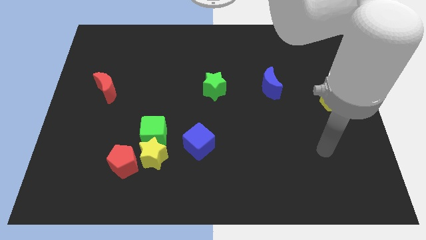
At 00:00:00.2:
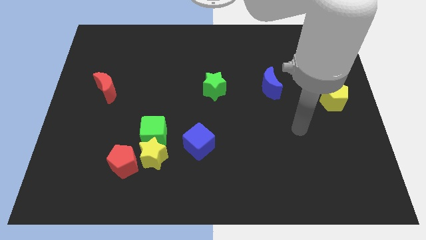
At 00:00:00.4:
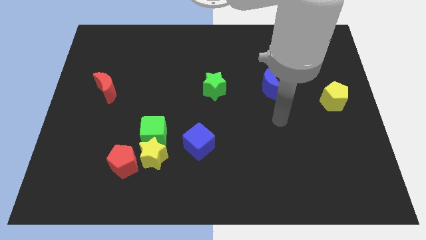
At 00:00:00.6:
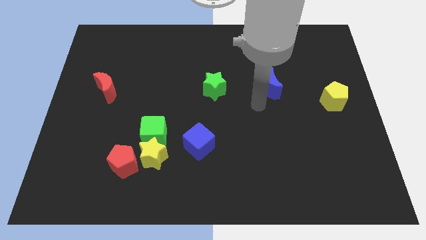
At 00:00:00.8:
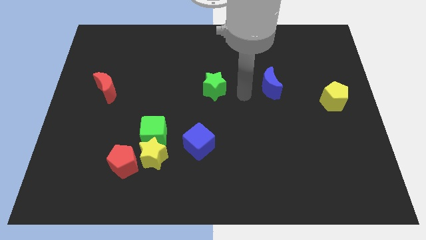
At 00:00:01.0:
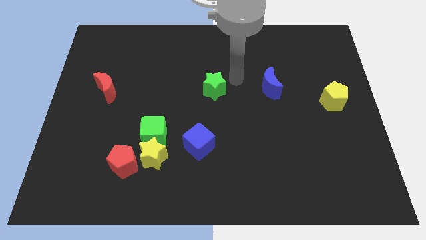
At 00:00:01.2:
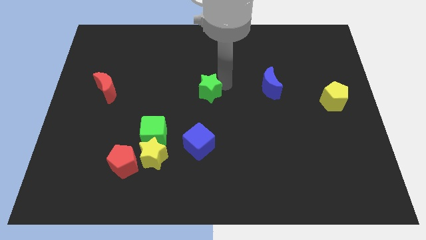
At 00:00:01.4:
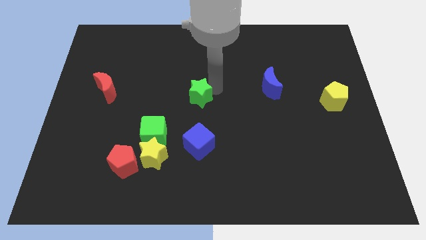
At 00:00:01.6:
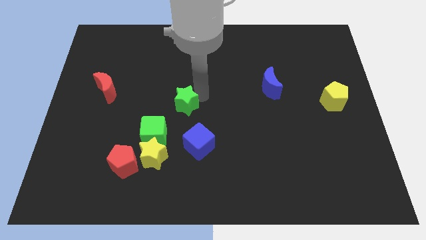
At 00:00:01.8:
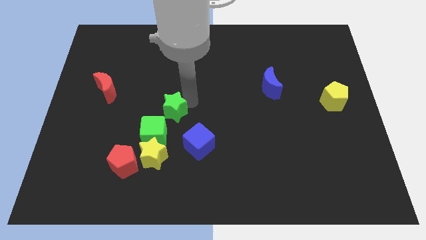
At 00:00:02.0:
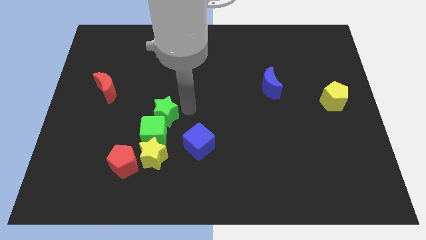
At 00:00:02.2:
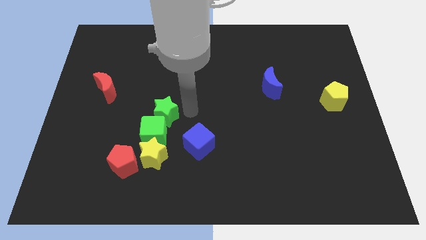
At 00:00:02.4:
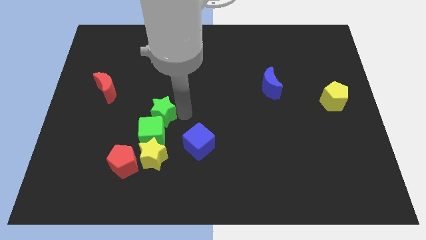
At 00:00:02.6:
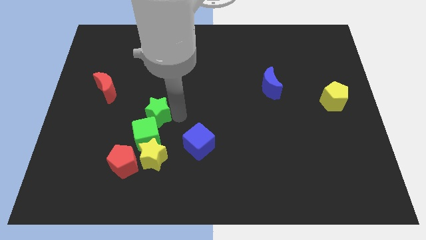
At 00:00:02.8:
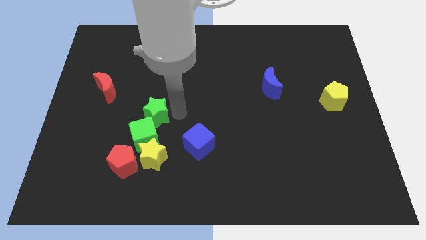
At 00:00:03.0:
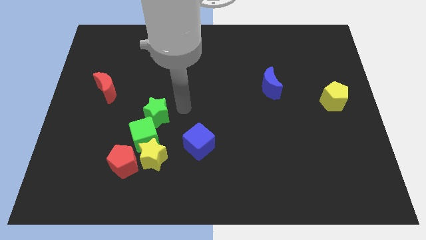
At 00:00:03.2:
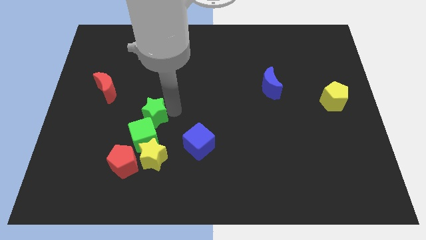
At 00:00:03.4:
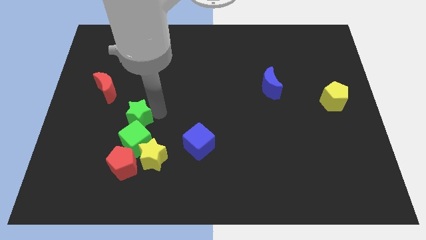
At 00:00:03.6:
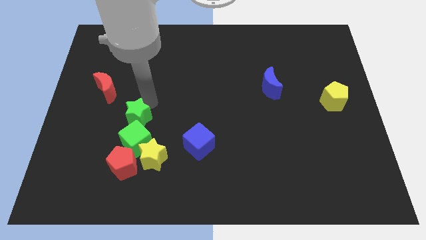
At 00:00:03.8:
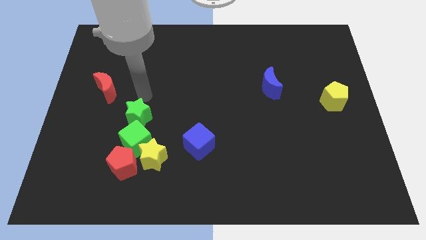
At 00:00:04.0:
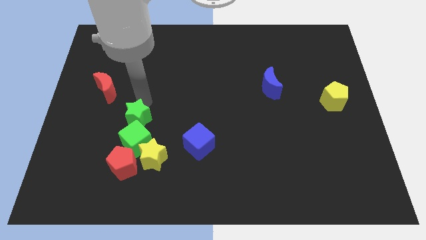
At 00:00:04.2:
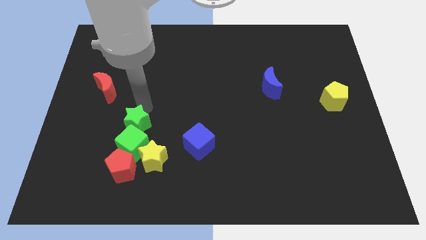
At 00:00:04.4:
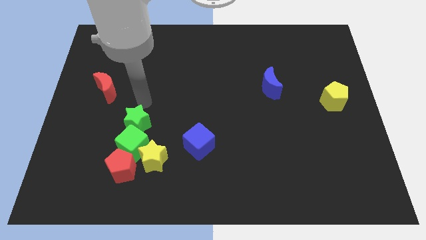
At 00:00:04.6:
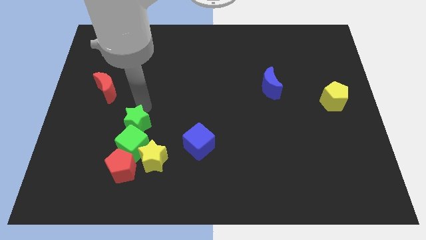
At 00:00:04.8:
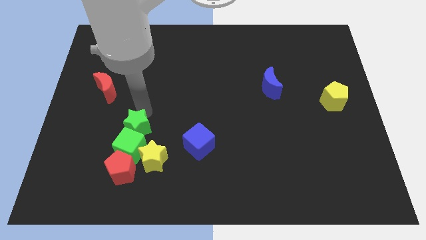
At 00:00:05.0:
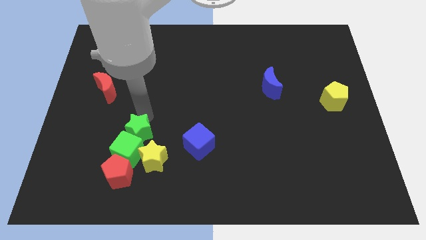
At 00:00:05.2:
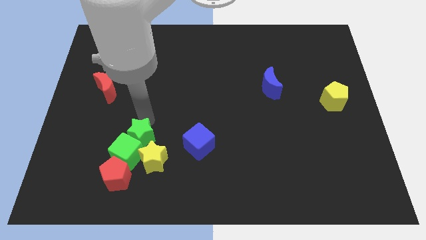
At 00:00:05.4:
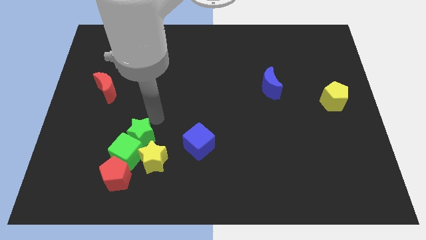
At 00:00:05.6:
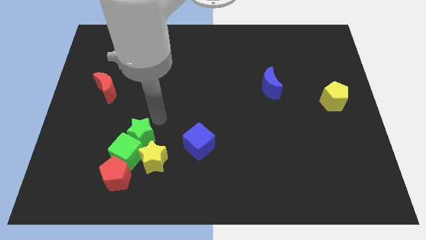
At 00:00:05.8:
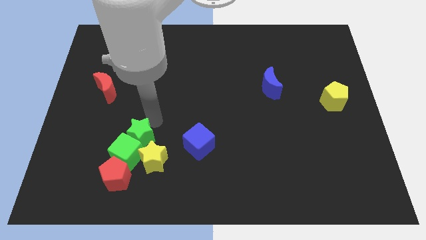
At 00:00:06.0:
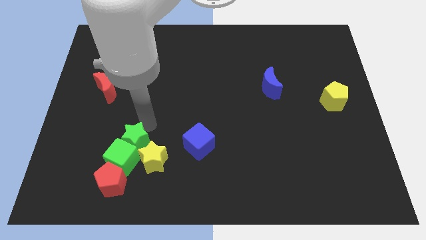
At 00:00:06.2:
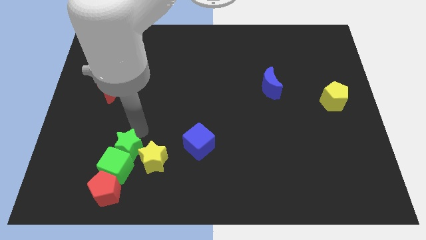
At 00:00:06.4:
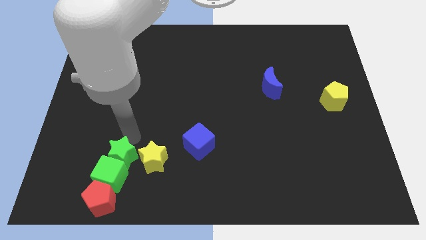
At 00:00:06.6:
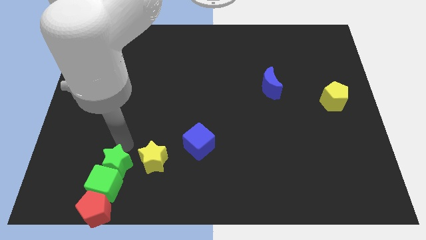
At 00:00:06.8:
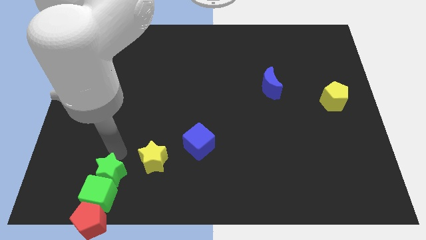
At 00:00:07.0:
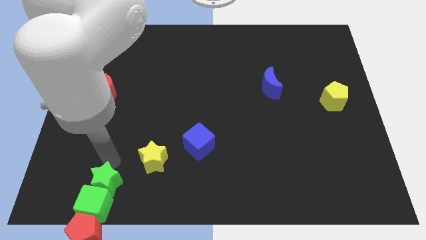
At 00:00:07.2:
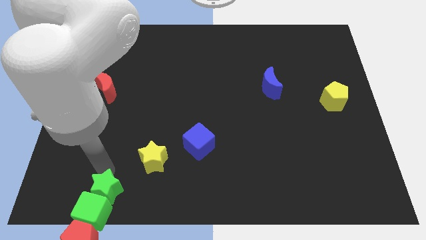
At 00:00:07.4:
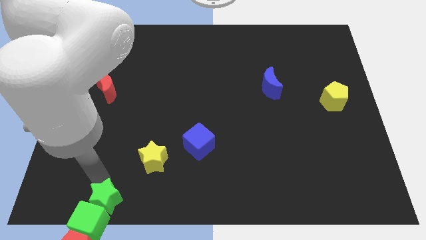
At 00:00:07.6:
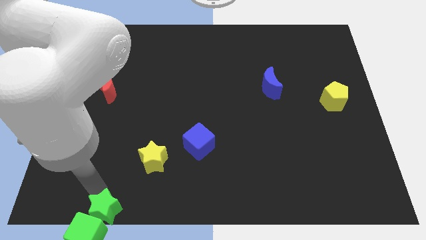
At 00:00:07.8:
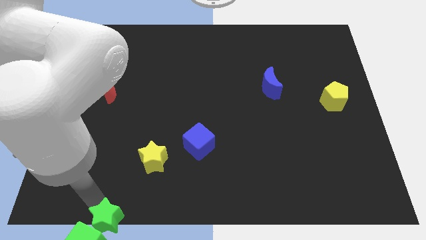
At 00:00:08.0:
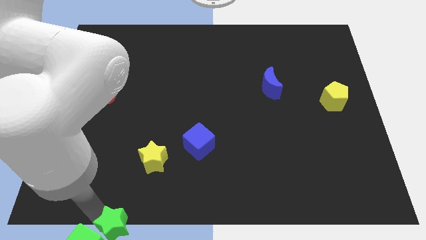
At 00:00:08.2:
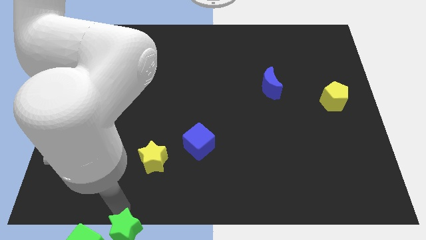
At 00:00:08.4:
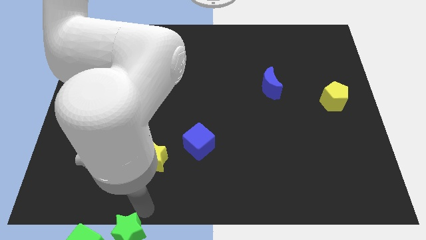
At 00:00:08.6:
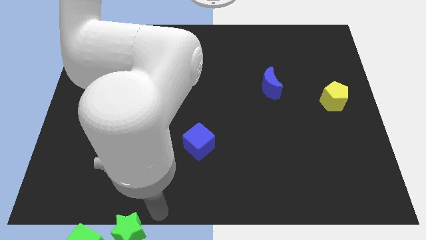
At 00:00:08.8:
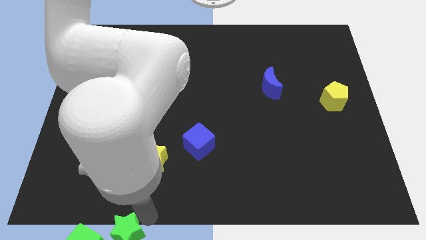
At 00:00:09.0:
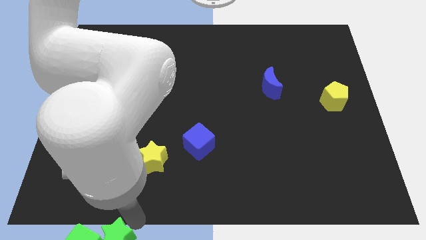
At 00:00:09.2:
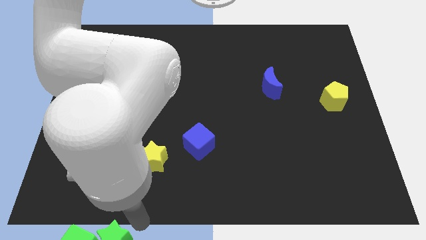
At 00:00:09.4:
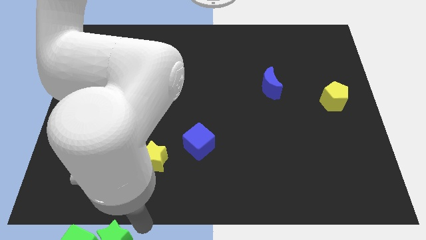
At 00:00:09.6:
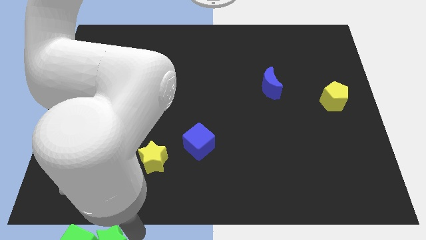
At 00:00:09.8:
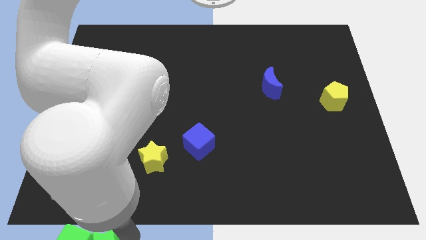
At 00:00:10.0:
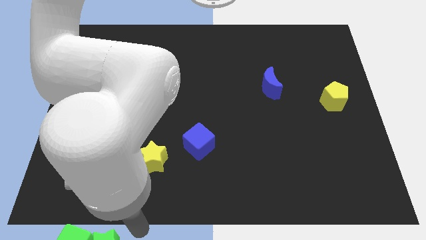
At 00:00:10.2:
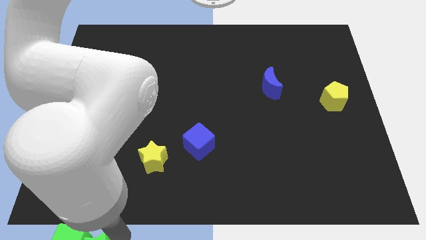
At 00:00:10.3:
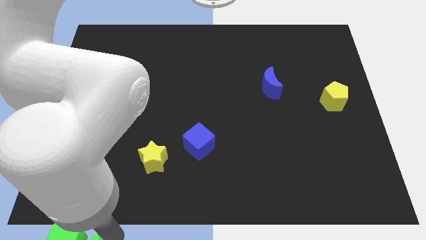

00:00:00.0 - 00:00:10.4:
push the green star close to the red pentagon

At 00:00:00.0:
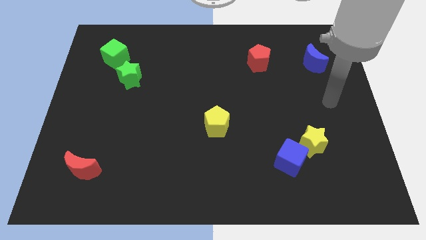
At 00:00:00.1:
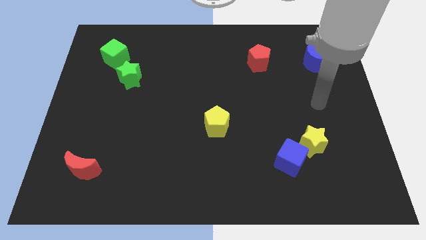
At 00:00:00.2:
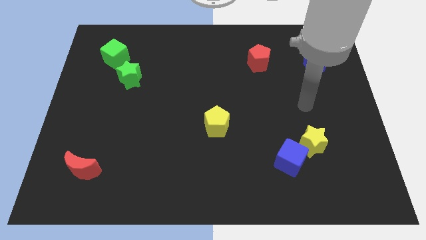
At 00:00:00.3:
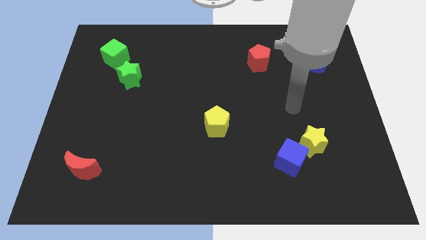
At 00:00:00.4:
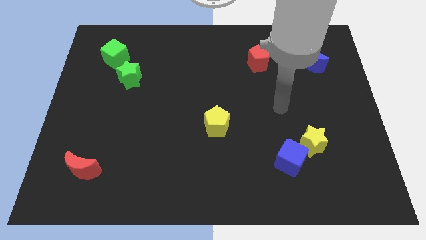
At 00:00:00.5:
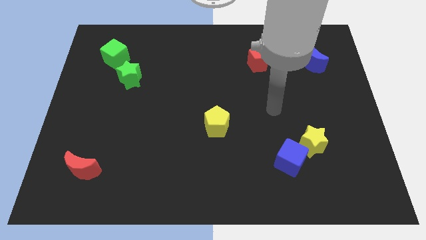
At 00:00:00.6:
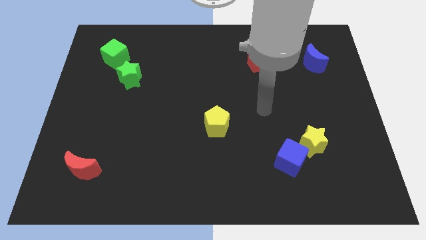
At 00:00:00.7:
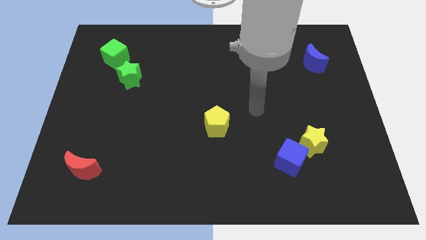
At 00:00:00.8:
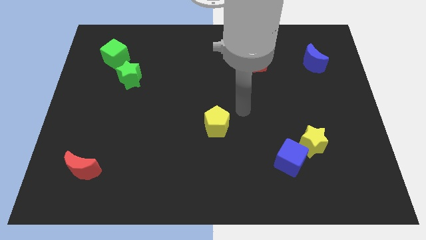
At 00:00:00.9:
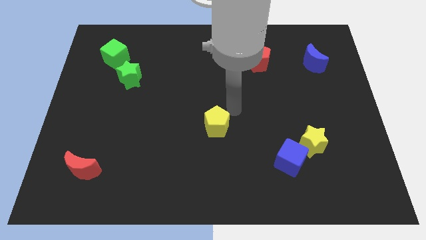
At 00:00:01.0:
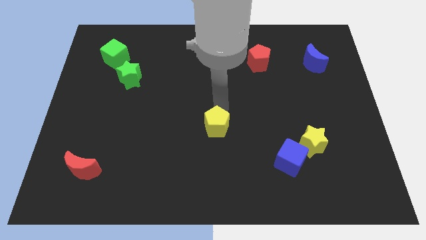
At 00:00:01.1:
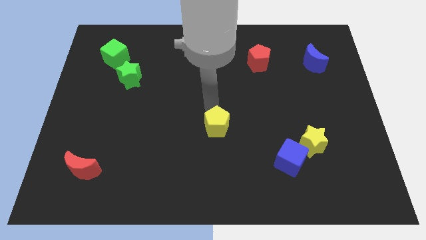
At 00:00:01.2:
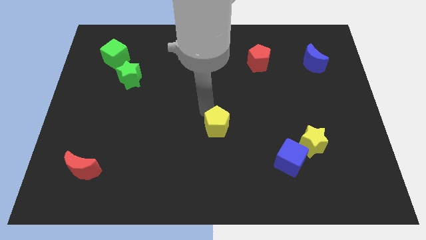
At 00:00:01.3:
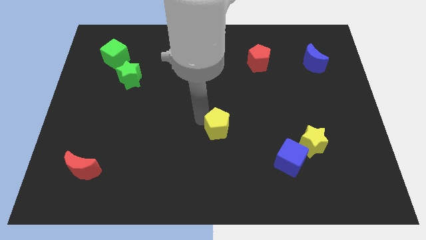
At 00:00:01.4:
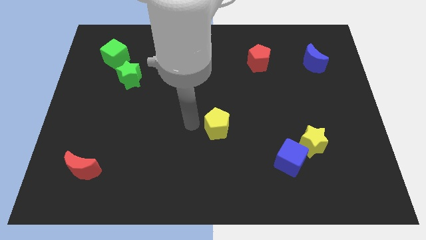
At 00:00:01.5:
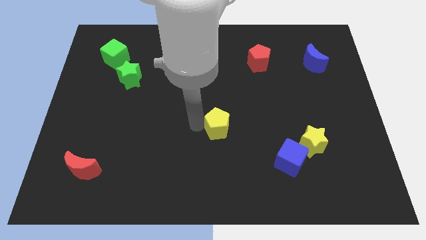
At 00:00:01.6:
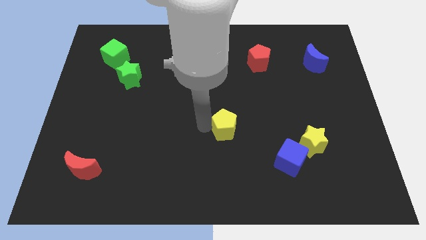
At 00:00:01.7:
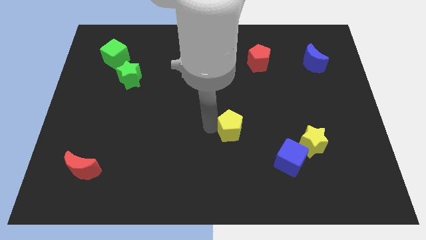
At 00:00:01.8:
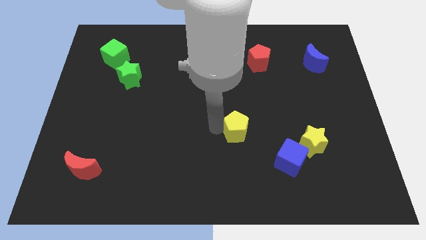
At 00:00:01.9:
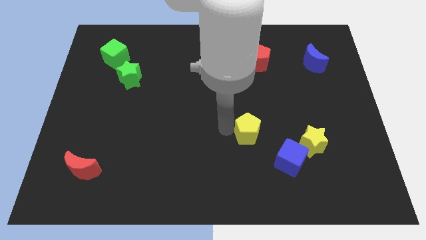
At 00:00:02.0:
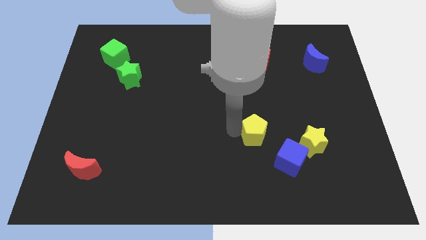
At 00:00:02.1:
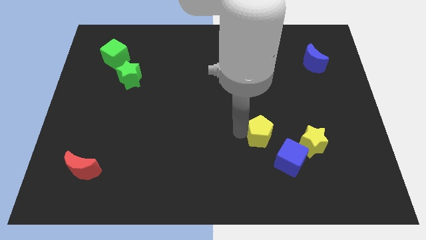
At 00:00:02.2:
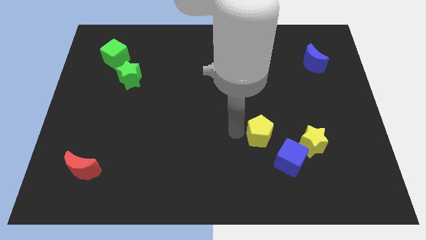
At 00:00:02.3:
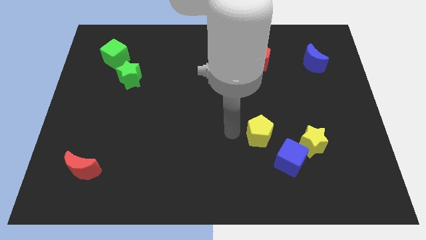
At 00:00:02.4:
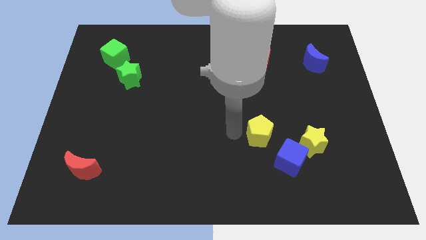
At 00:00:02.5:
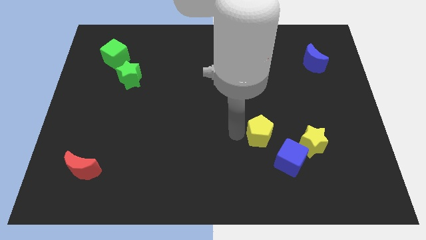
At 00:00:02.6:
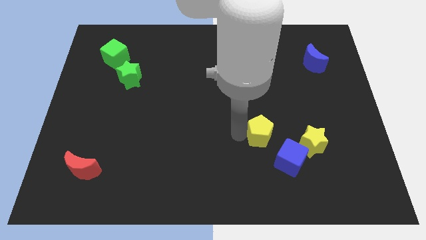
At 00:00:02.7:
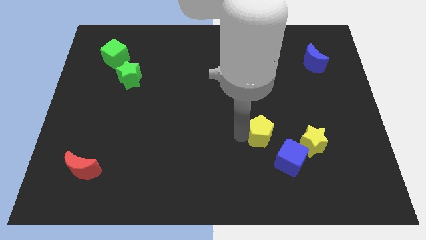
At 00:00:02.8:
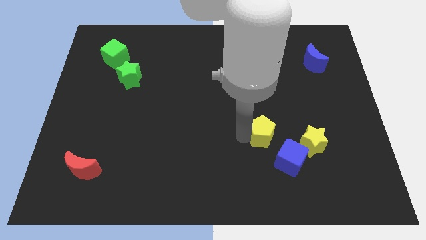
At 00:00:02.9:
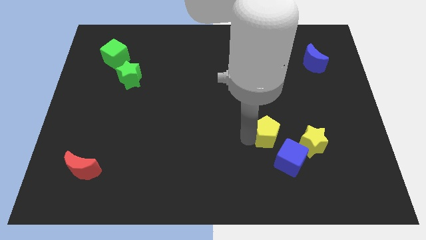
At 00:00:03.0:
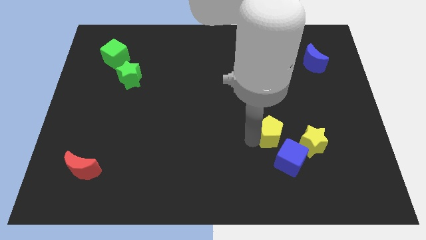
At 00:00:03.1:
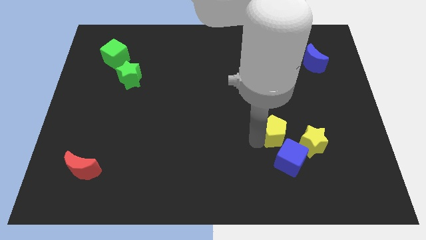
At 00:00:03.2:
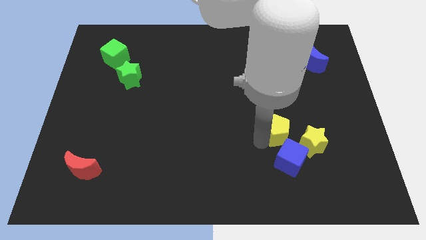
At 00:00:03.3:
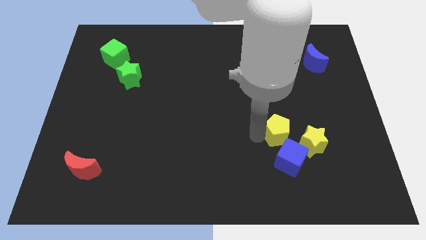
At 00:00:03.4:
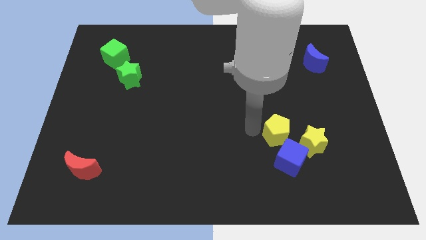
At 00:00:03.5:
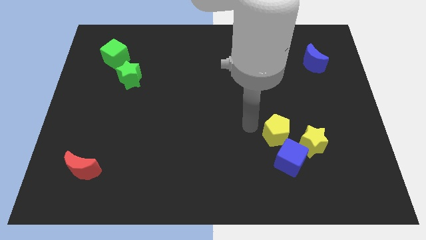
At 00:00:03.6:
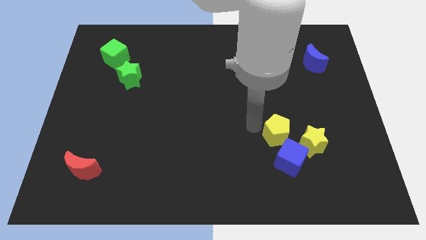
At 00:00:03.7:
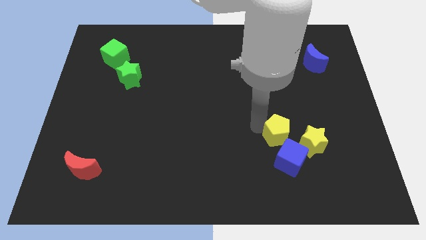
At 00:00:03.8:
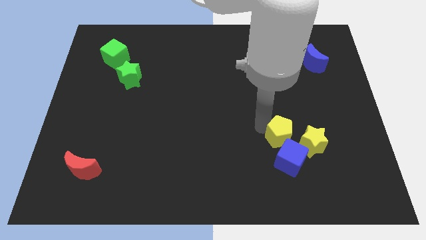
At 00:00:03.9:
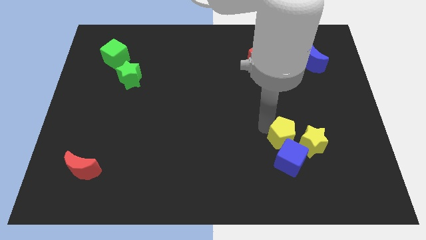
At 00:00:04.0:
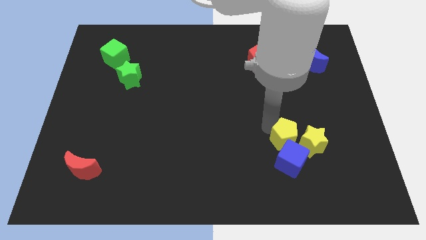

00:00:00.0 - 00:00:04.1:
push the yellow pentagon close to the yellow star
